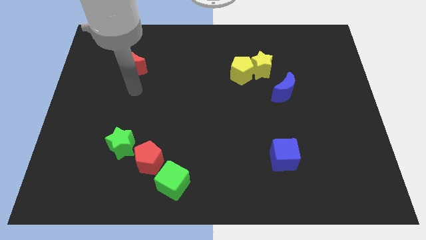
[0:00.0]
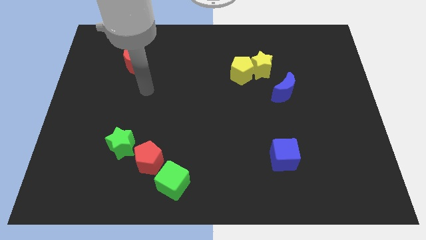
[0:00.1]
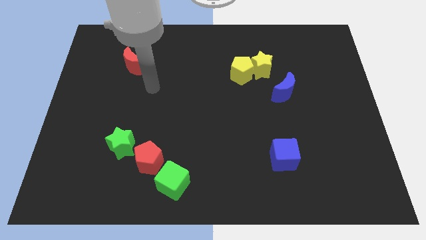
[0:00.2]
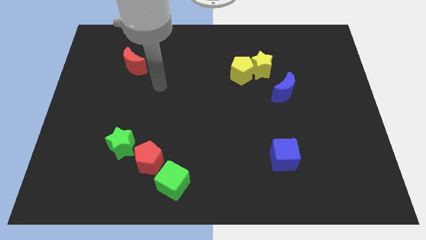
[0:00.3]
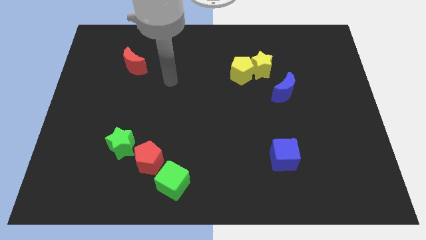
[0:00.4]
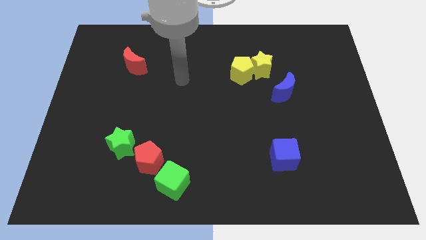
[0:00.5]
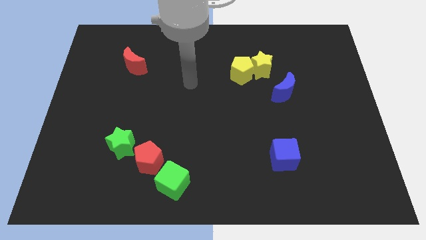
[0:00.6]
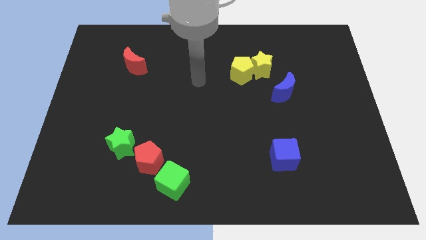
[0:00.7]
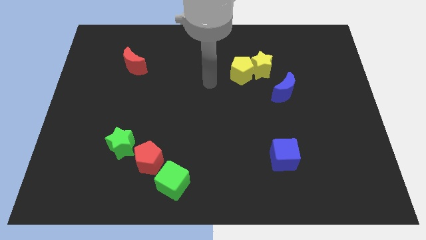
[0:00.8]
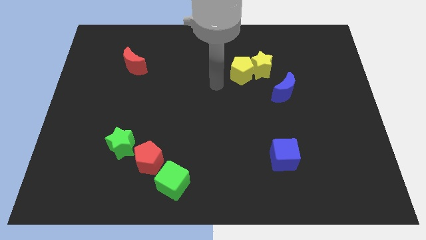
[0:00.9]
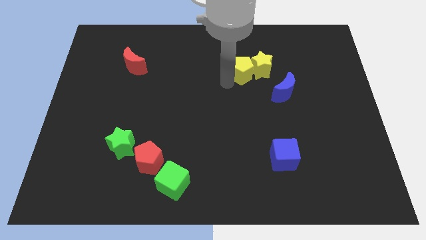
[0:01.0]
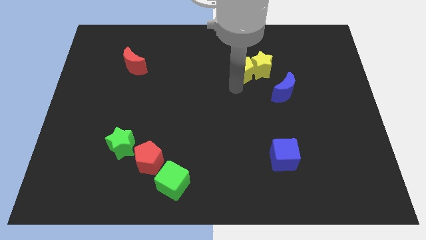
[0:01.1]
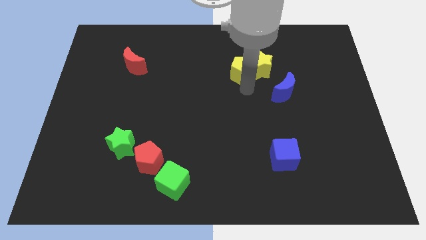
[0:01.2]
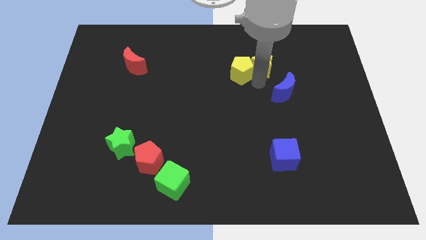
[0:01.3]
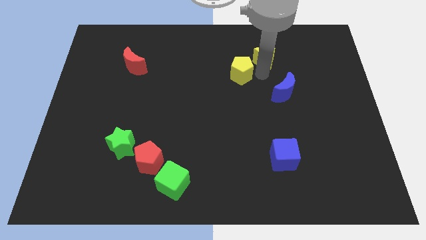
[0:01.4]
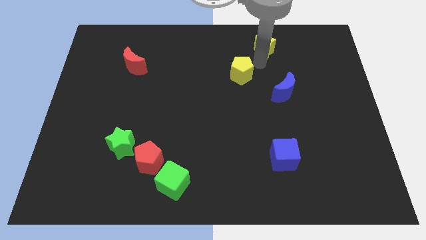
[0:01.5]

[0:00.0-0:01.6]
separate the yellow pentagon from the yellow star

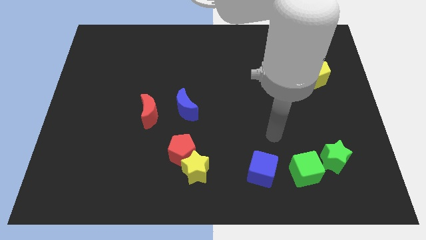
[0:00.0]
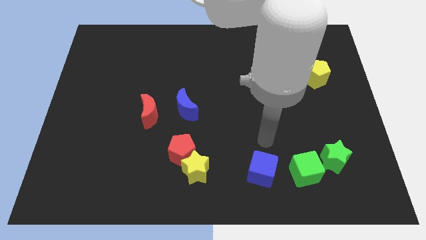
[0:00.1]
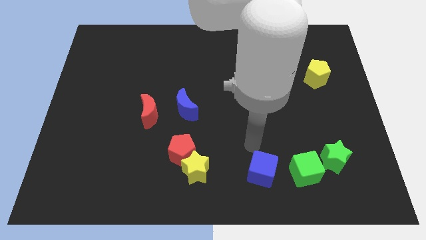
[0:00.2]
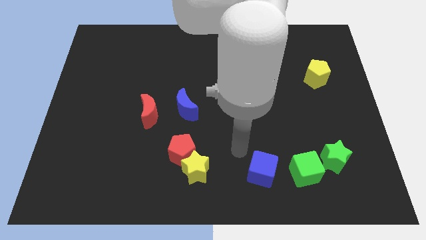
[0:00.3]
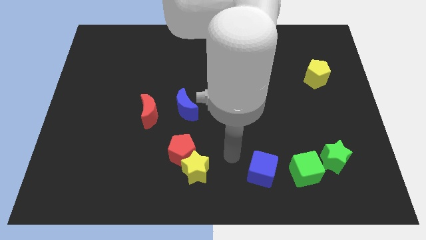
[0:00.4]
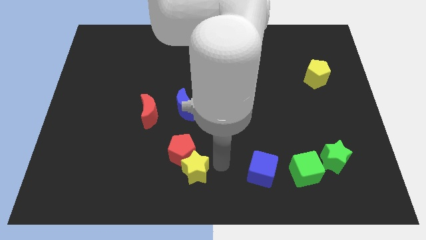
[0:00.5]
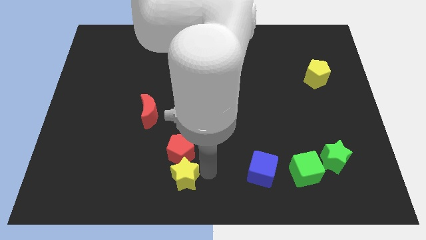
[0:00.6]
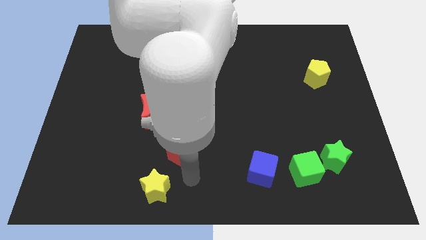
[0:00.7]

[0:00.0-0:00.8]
move the red pentagon away from the yellow star

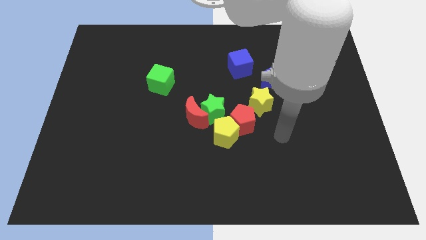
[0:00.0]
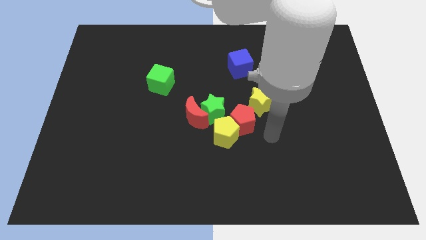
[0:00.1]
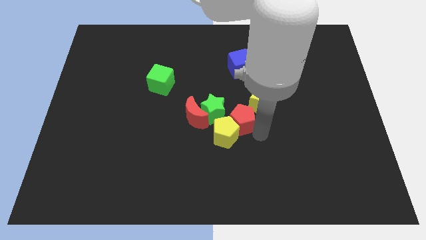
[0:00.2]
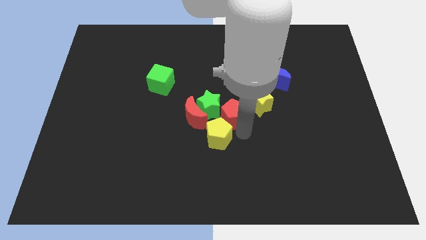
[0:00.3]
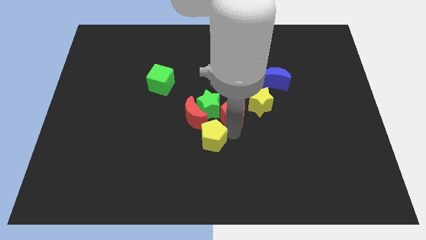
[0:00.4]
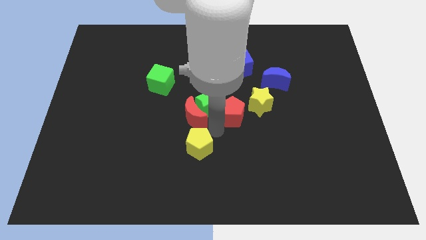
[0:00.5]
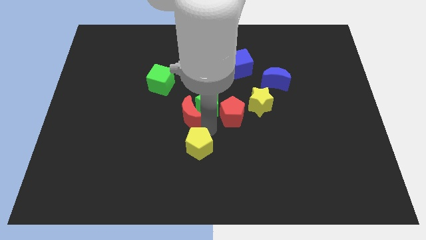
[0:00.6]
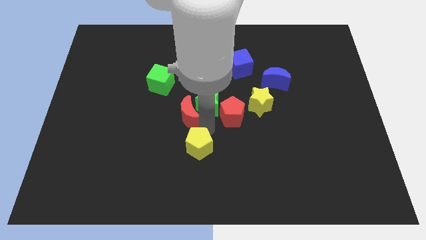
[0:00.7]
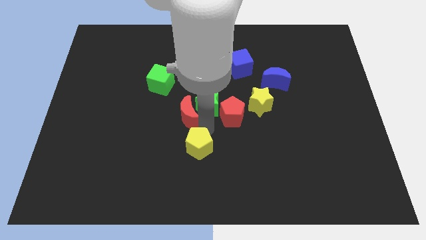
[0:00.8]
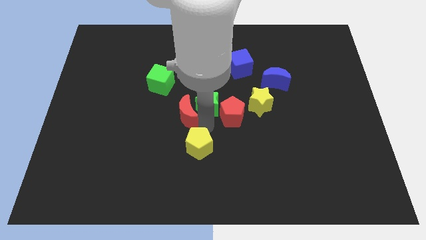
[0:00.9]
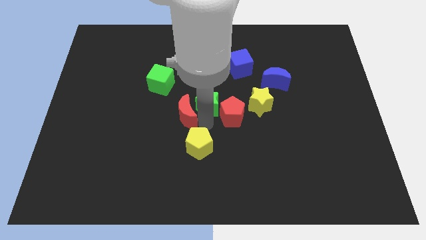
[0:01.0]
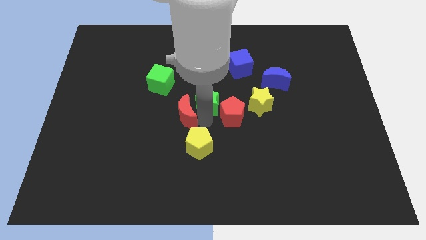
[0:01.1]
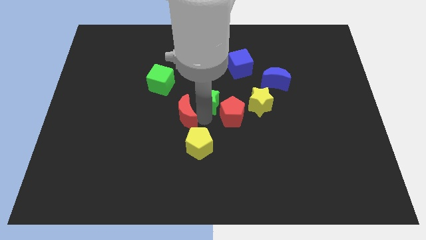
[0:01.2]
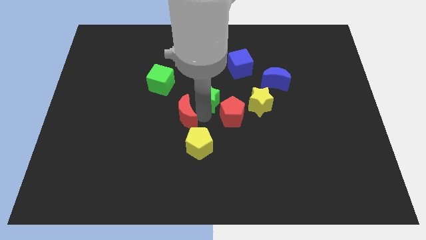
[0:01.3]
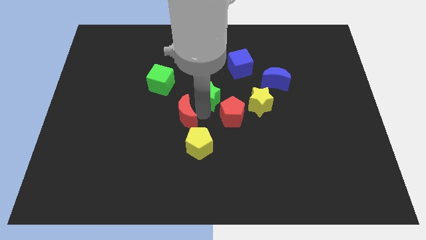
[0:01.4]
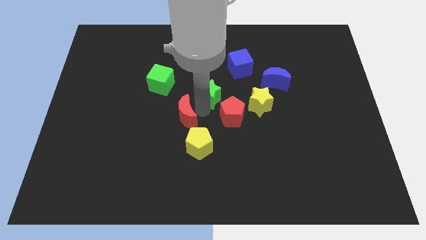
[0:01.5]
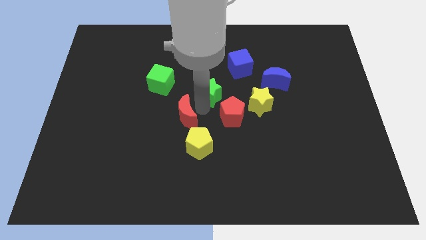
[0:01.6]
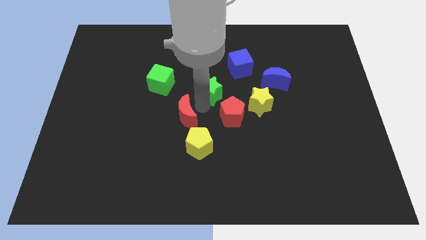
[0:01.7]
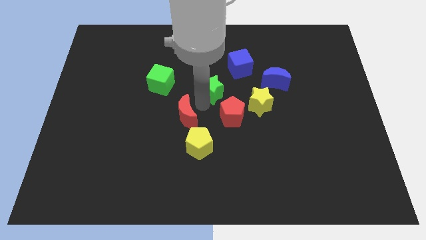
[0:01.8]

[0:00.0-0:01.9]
move the green star away from the red moon, yellow pentagon, and red pentagon

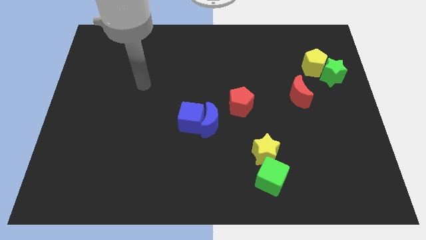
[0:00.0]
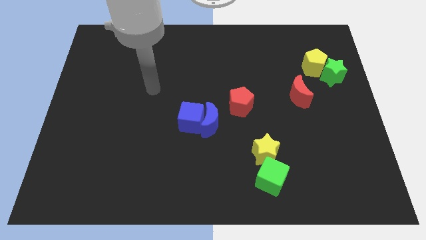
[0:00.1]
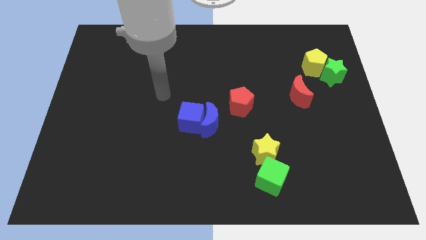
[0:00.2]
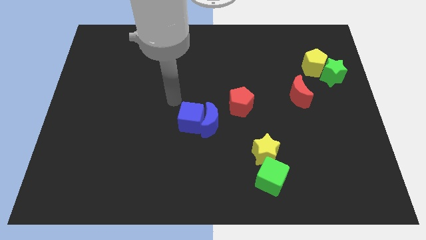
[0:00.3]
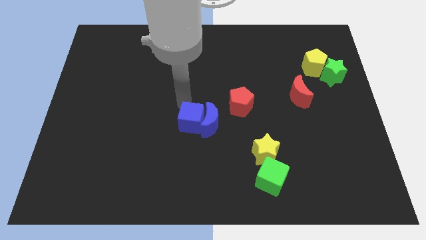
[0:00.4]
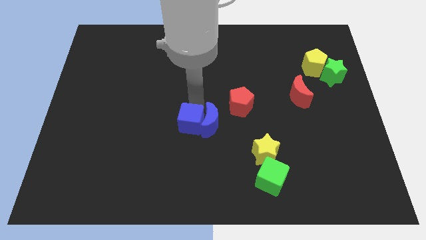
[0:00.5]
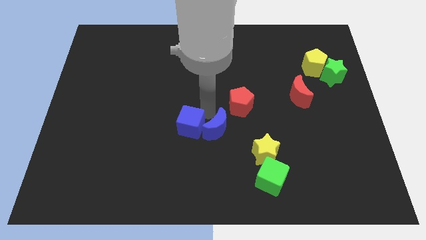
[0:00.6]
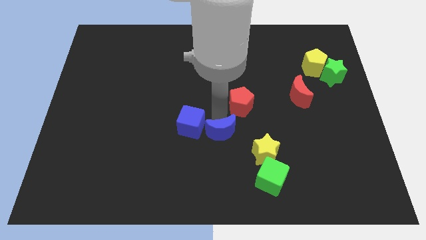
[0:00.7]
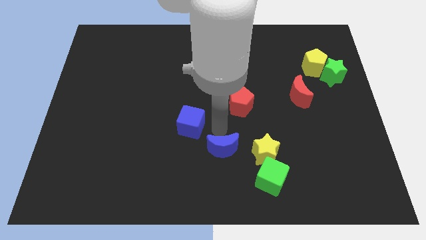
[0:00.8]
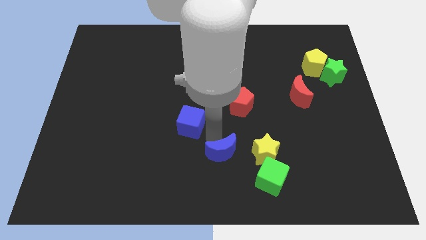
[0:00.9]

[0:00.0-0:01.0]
pull the blue cube apart from the blue moon

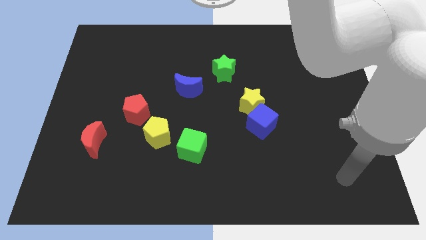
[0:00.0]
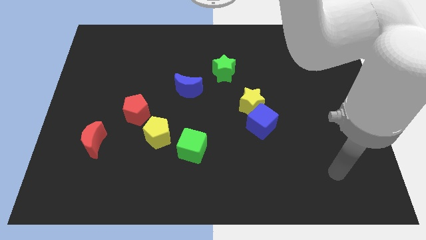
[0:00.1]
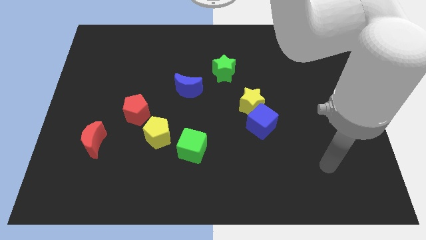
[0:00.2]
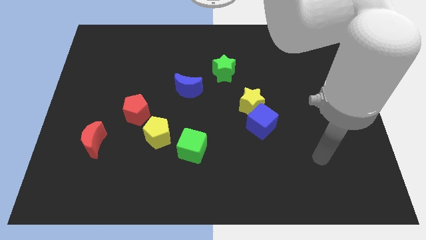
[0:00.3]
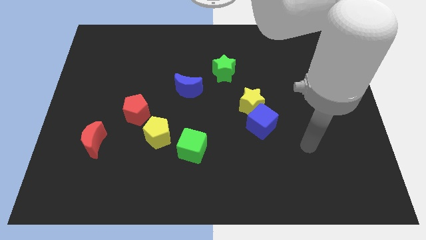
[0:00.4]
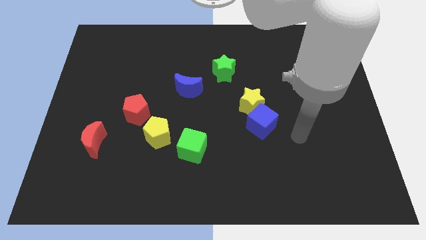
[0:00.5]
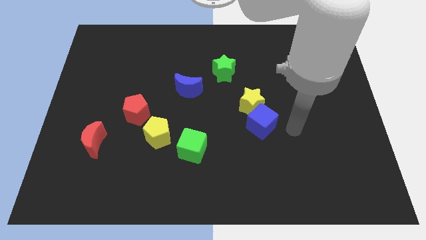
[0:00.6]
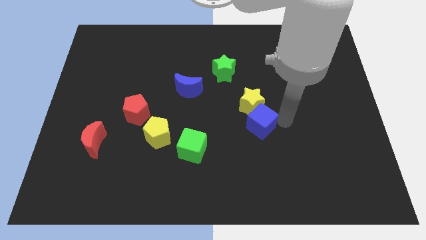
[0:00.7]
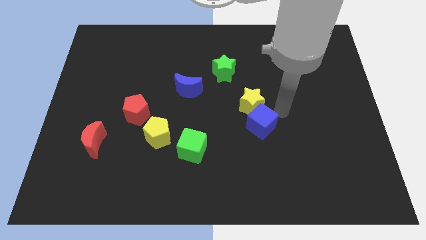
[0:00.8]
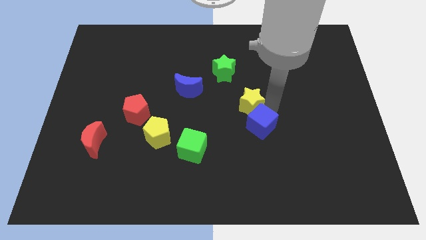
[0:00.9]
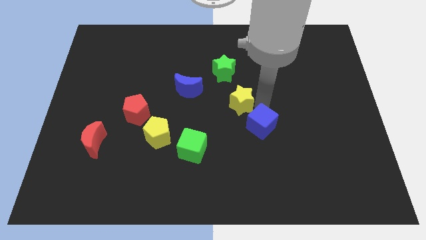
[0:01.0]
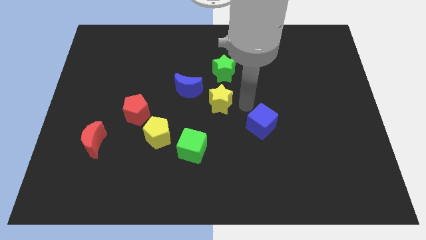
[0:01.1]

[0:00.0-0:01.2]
pull the blue cube apart from the yellow star

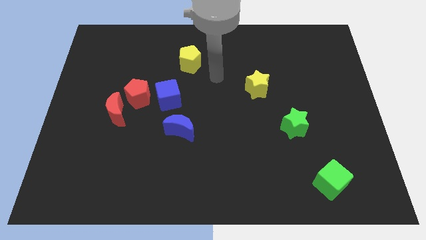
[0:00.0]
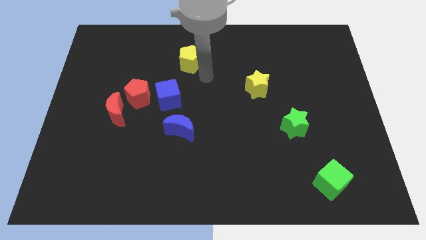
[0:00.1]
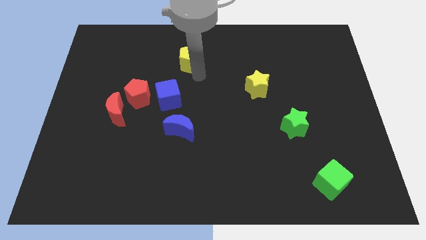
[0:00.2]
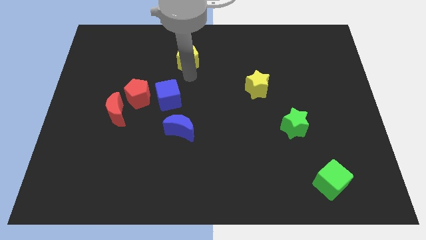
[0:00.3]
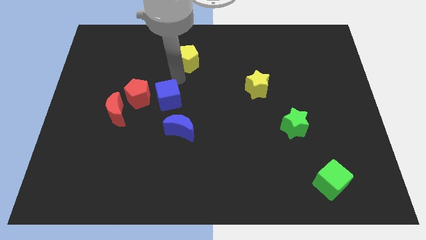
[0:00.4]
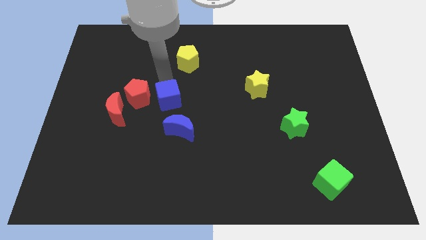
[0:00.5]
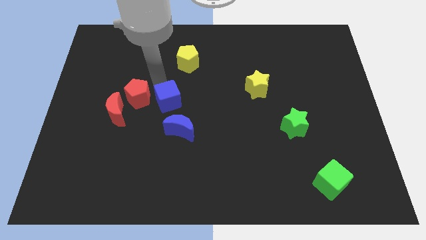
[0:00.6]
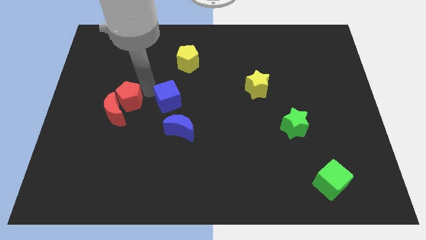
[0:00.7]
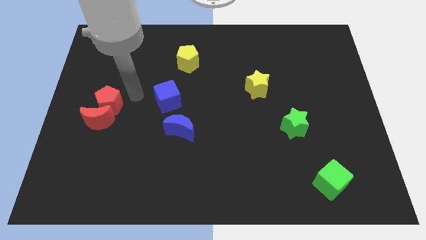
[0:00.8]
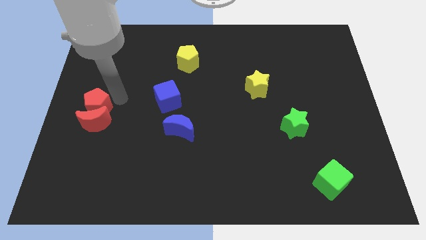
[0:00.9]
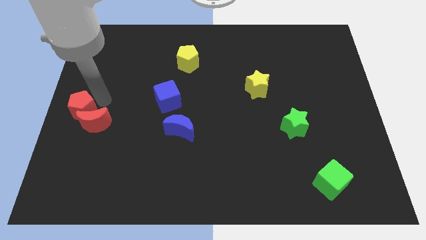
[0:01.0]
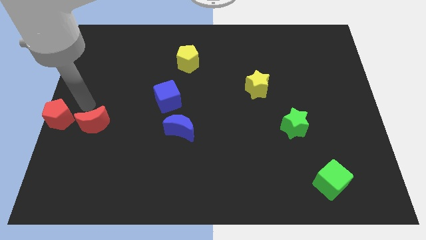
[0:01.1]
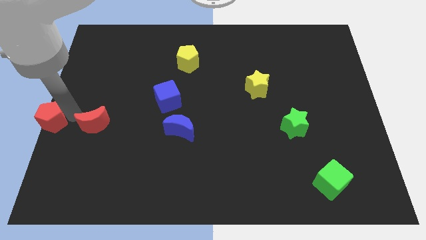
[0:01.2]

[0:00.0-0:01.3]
separate the red moon from the red pentagon

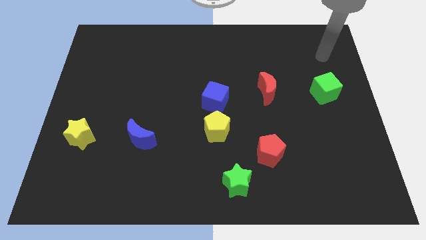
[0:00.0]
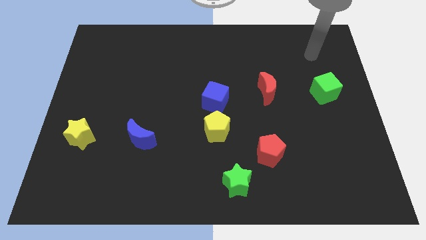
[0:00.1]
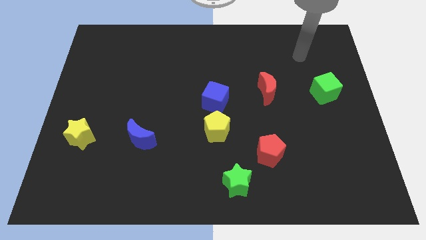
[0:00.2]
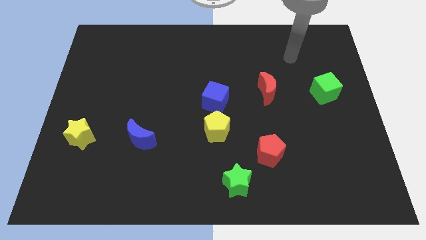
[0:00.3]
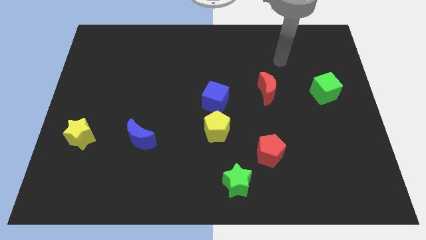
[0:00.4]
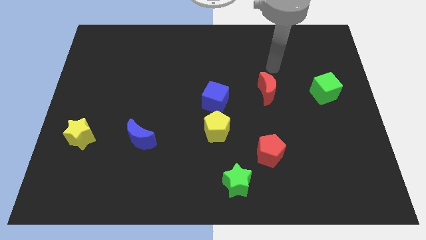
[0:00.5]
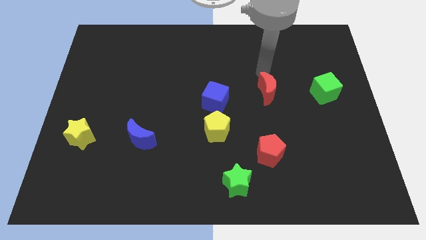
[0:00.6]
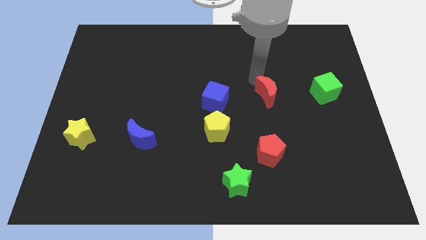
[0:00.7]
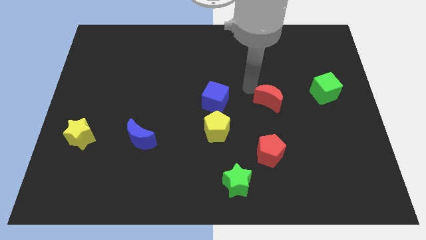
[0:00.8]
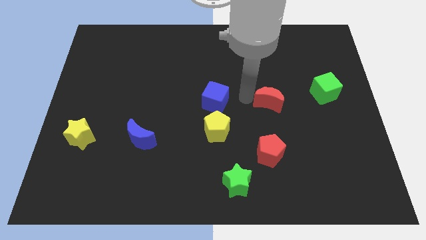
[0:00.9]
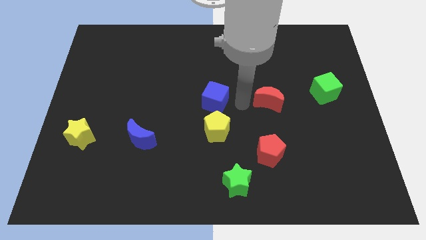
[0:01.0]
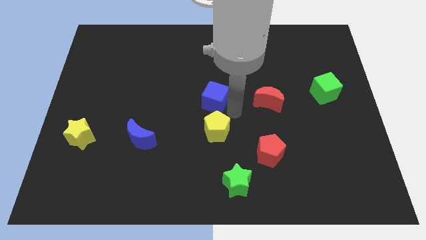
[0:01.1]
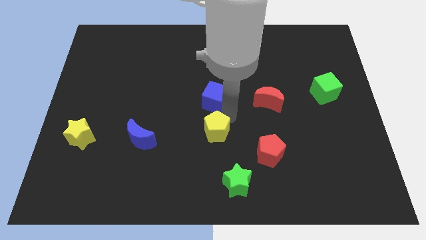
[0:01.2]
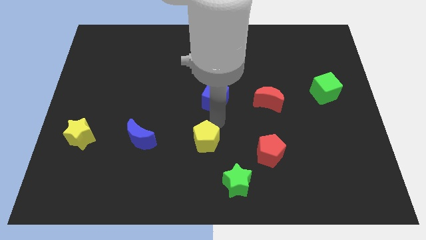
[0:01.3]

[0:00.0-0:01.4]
pull the blue cube apart from the yellow pentagon
